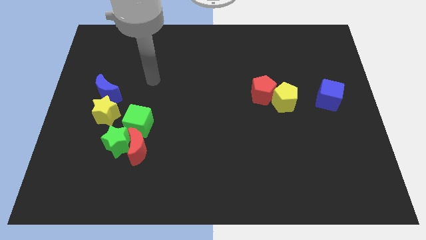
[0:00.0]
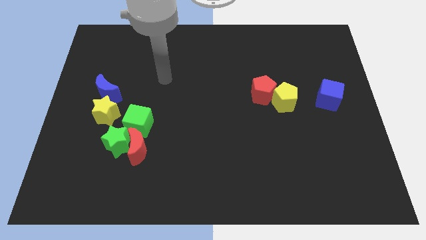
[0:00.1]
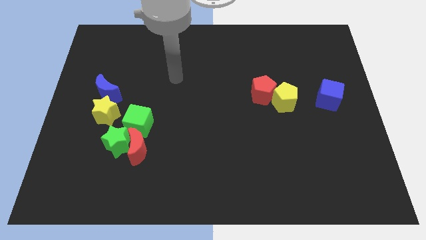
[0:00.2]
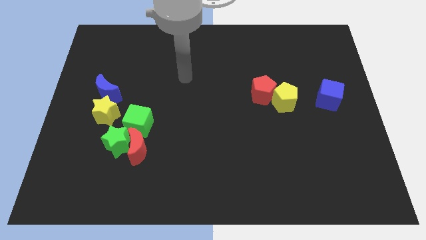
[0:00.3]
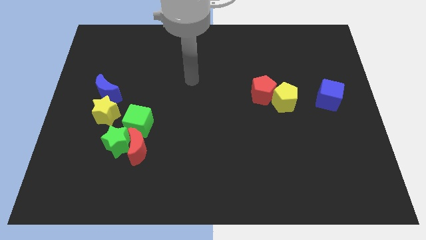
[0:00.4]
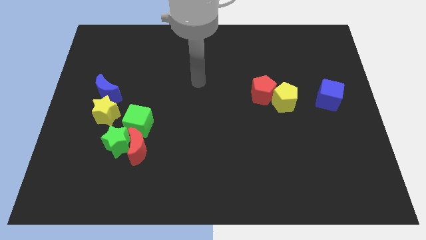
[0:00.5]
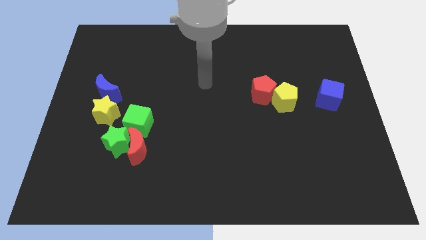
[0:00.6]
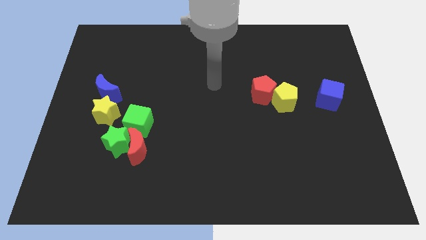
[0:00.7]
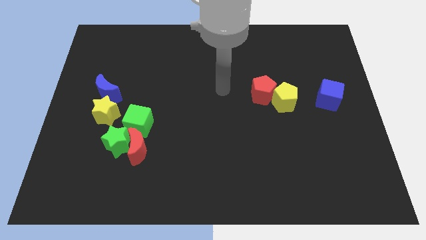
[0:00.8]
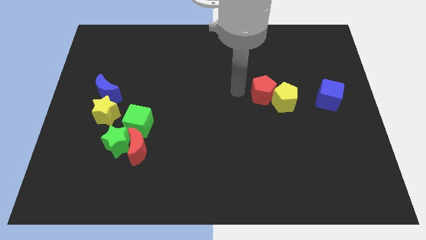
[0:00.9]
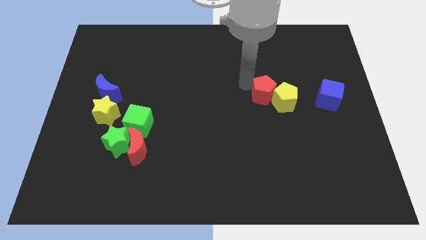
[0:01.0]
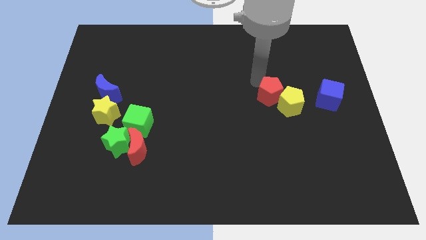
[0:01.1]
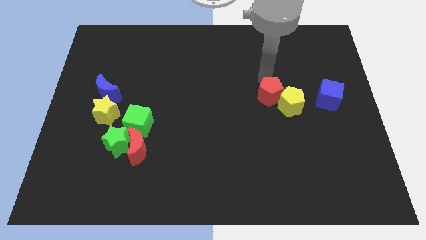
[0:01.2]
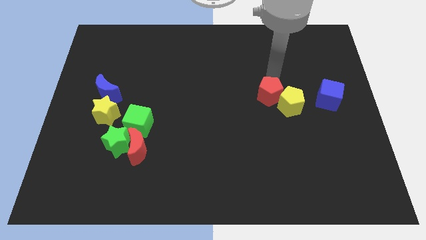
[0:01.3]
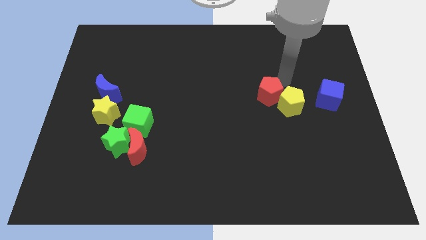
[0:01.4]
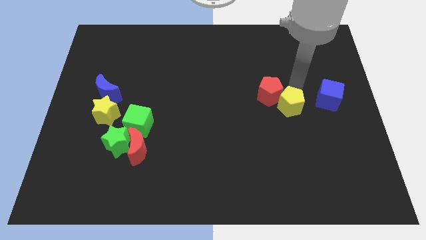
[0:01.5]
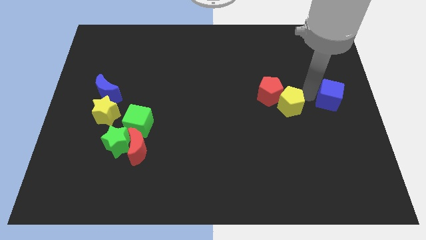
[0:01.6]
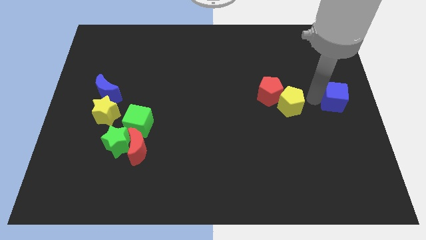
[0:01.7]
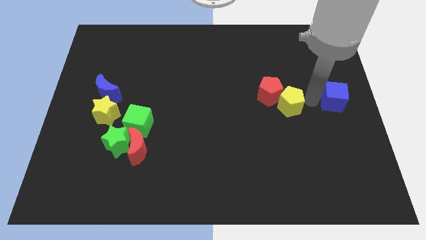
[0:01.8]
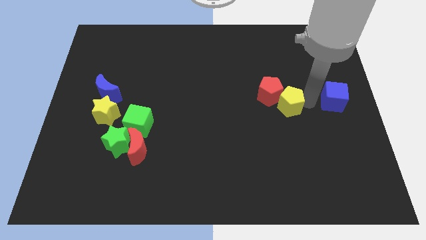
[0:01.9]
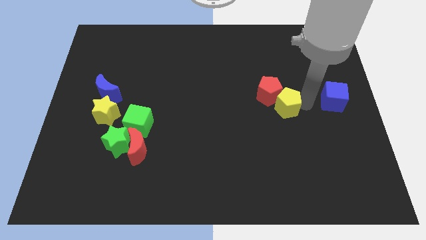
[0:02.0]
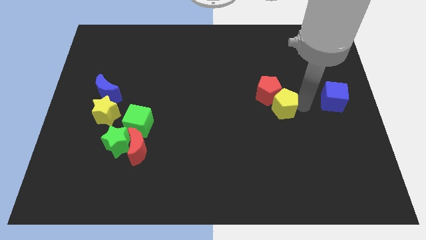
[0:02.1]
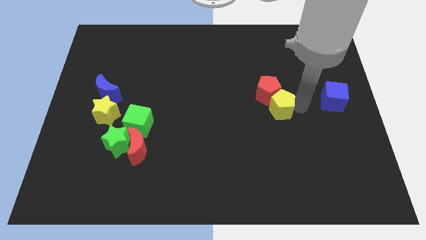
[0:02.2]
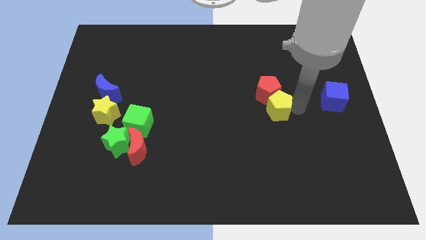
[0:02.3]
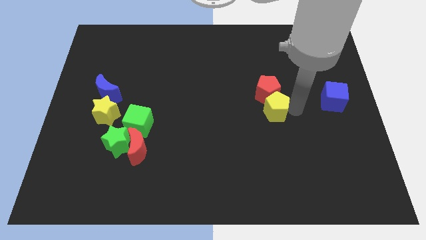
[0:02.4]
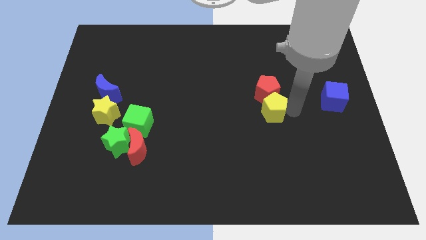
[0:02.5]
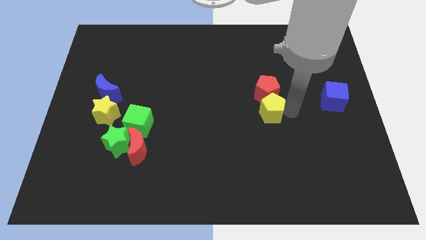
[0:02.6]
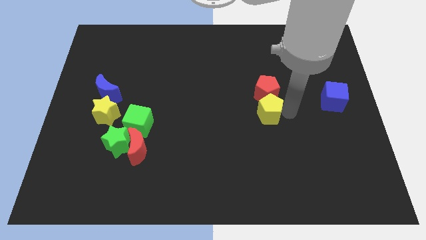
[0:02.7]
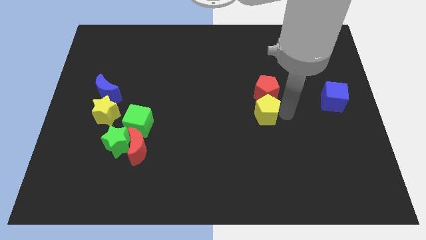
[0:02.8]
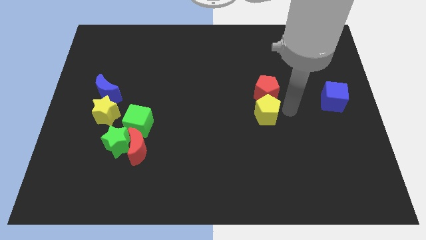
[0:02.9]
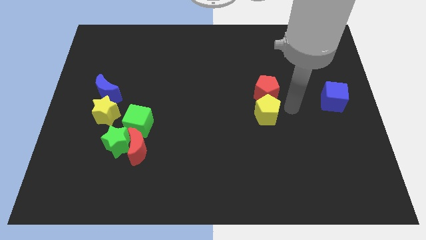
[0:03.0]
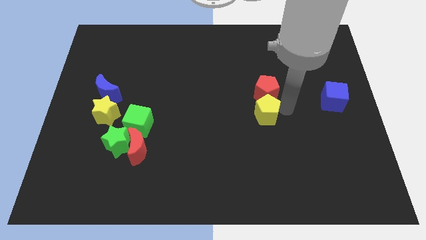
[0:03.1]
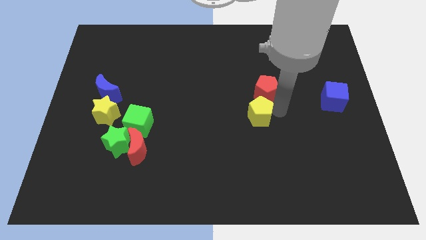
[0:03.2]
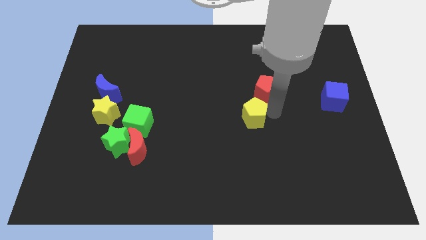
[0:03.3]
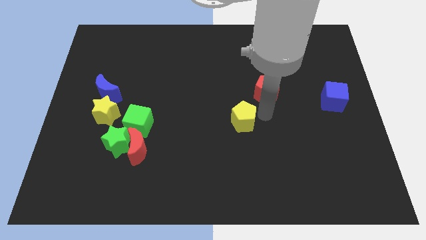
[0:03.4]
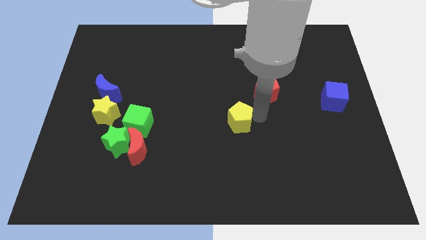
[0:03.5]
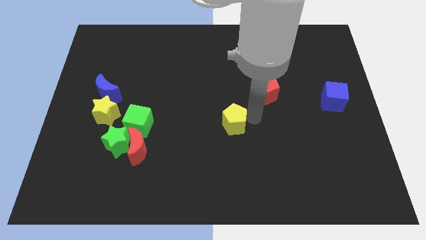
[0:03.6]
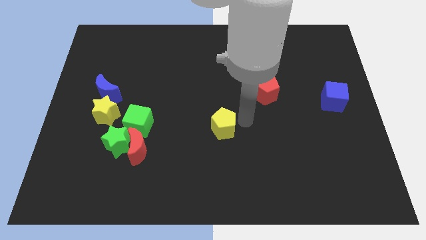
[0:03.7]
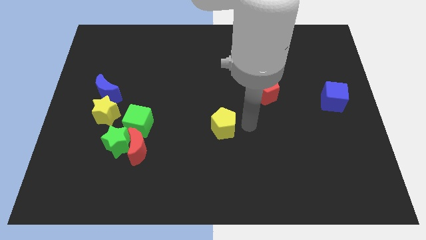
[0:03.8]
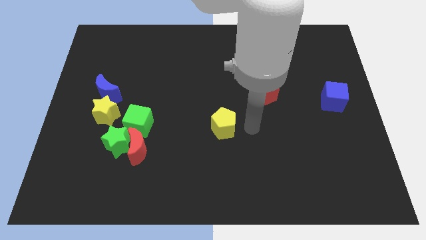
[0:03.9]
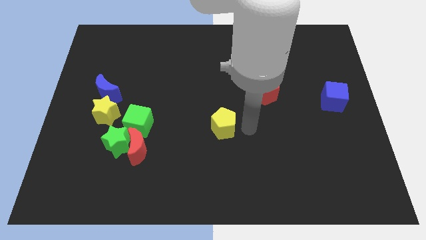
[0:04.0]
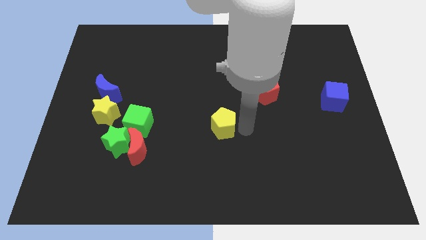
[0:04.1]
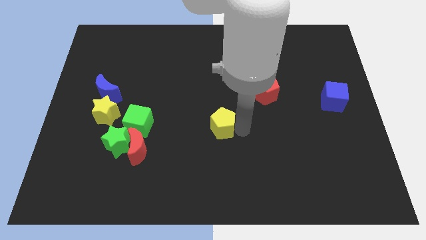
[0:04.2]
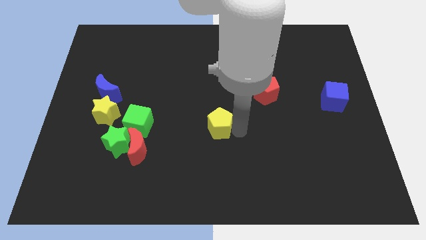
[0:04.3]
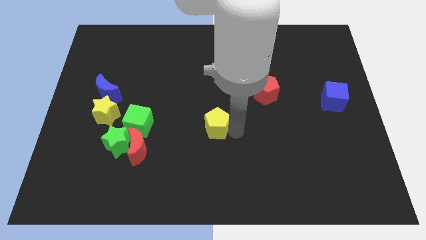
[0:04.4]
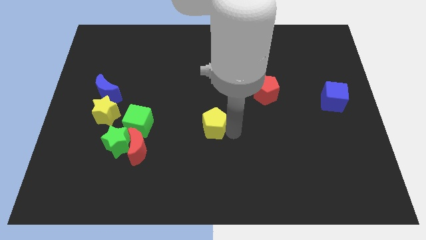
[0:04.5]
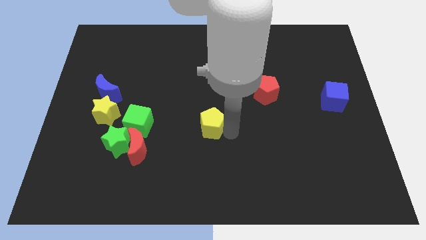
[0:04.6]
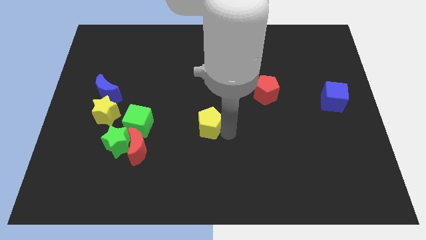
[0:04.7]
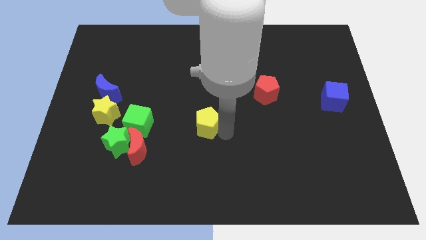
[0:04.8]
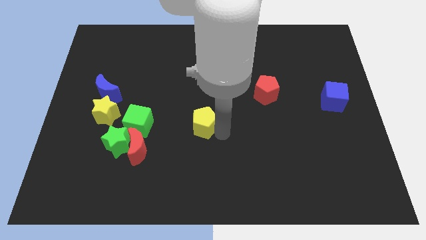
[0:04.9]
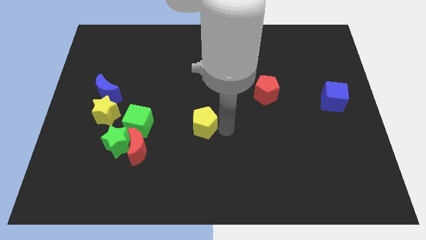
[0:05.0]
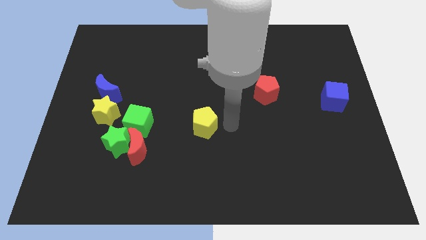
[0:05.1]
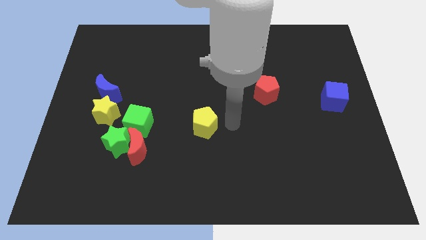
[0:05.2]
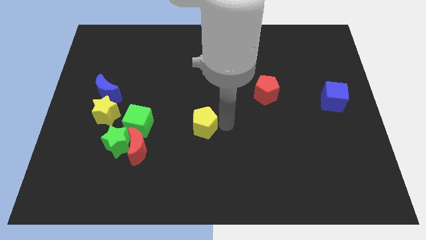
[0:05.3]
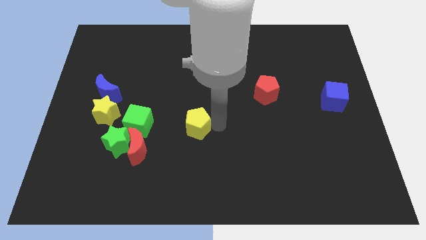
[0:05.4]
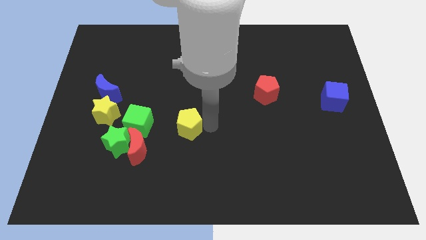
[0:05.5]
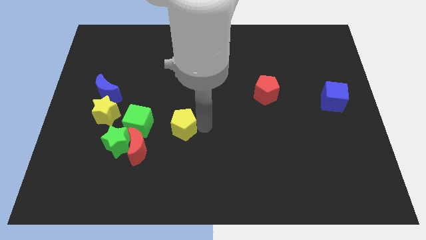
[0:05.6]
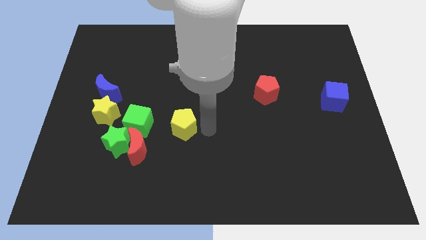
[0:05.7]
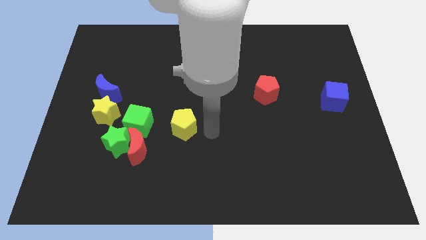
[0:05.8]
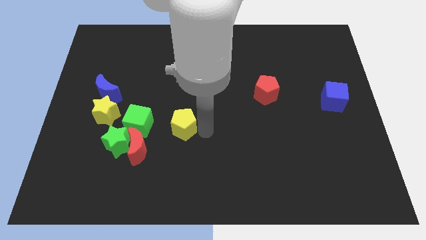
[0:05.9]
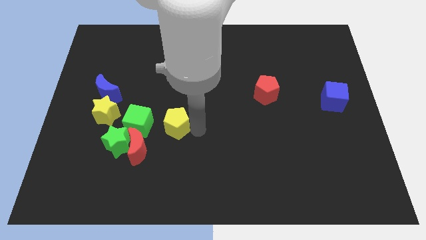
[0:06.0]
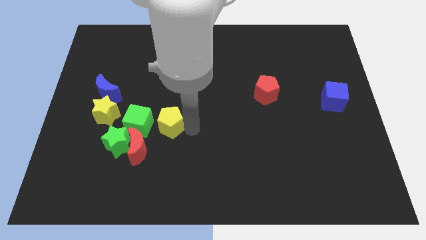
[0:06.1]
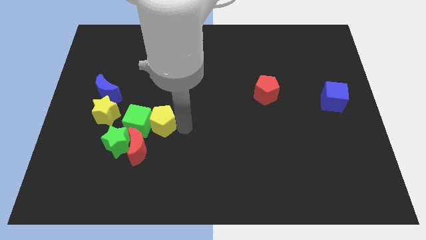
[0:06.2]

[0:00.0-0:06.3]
push the yellow pentagon to the green cube

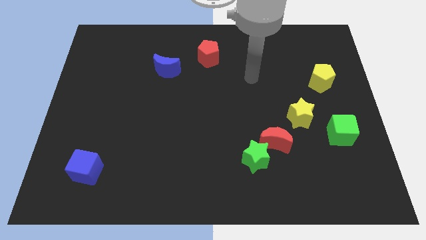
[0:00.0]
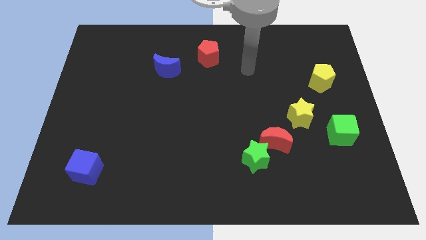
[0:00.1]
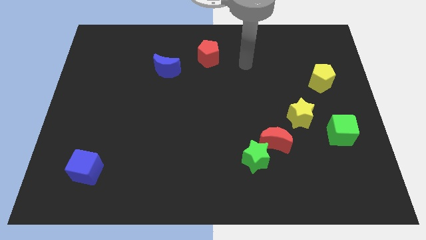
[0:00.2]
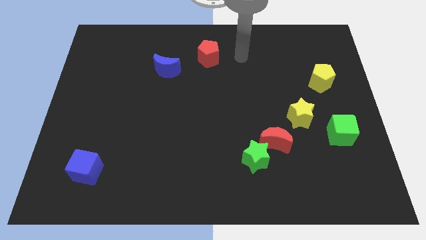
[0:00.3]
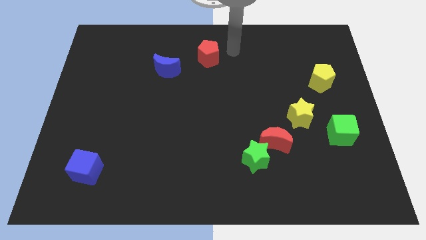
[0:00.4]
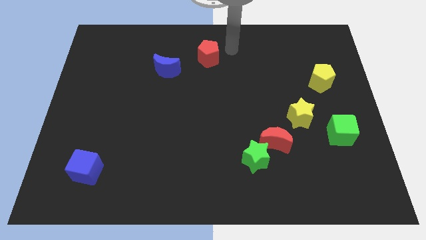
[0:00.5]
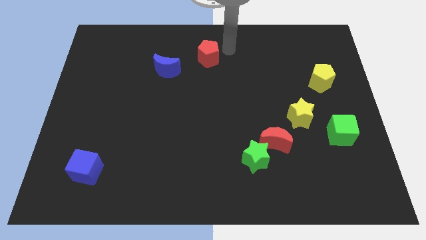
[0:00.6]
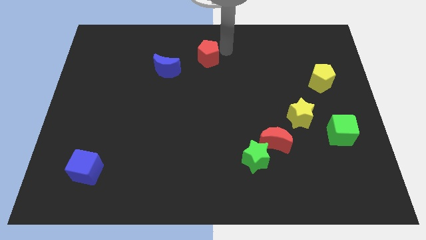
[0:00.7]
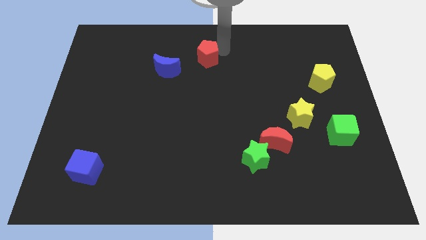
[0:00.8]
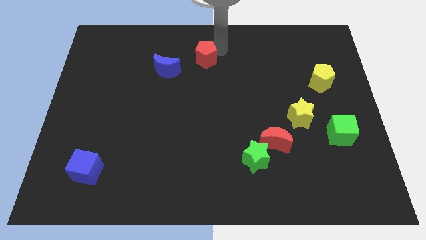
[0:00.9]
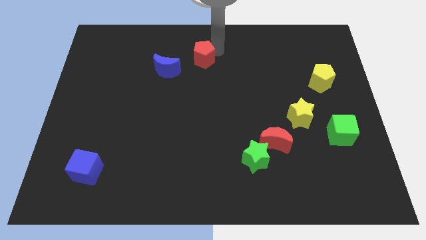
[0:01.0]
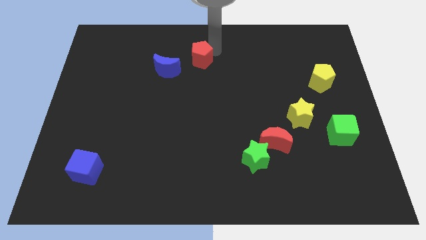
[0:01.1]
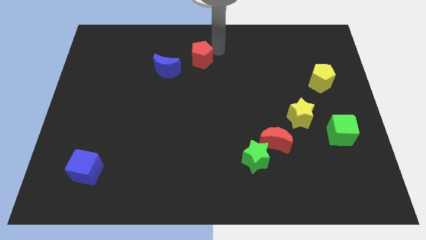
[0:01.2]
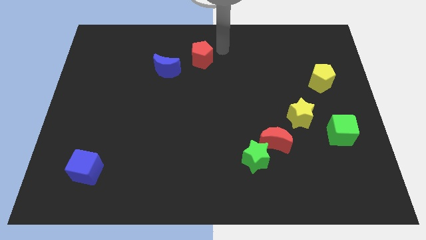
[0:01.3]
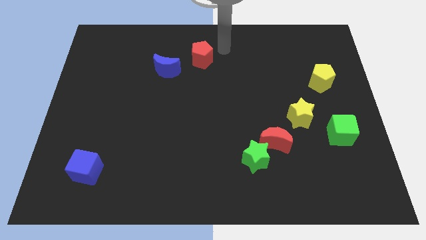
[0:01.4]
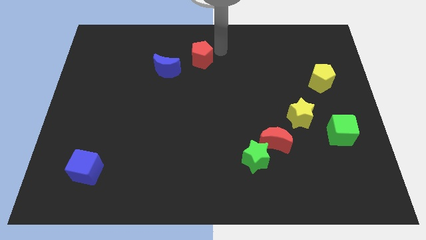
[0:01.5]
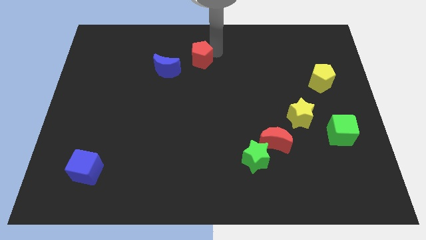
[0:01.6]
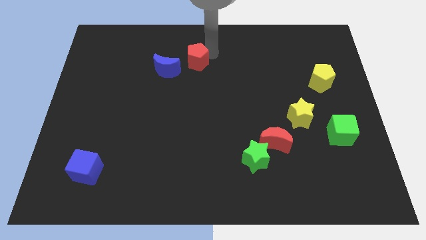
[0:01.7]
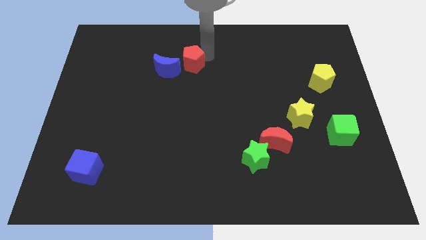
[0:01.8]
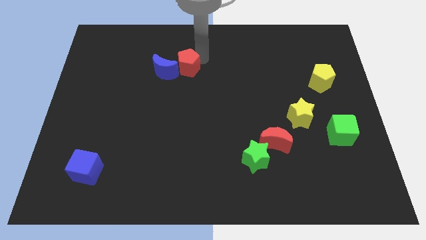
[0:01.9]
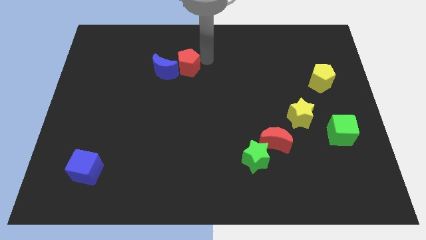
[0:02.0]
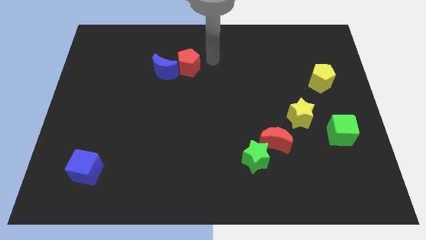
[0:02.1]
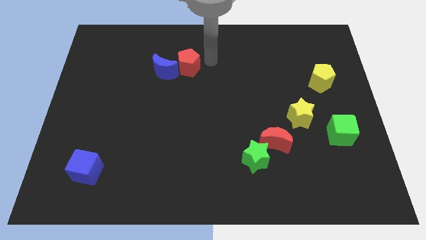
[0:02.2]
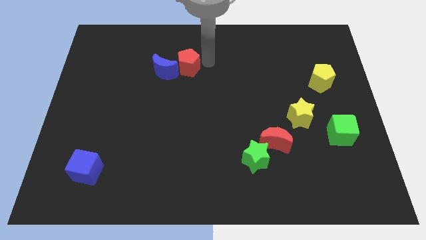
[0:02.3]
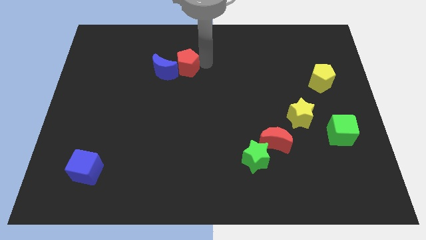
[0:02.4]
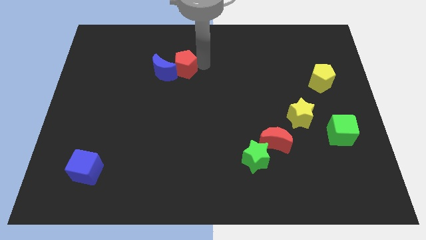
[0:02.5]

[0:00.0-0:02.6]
slide the red pentagon next to the blue moon
